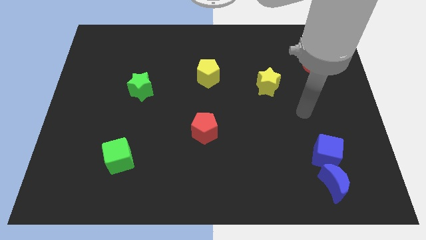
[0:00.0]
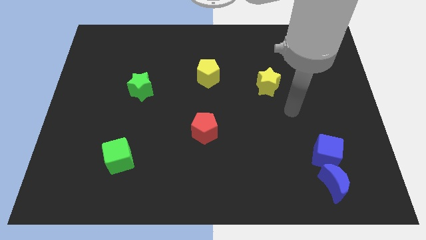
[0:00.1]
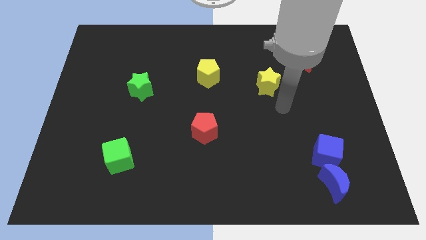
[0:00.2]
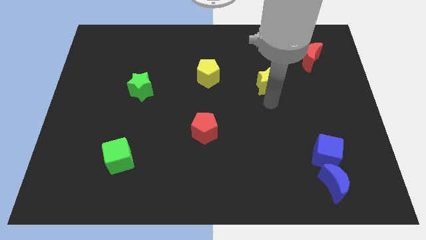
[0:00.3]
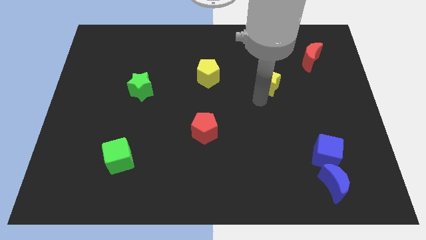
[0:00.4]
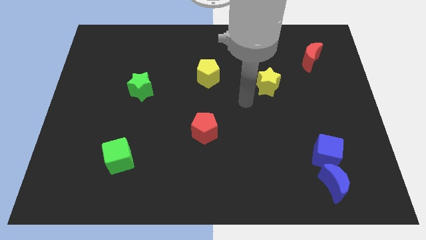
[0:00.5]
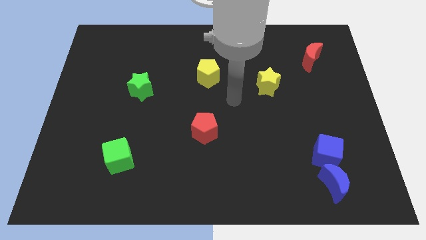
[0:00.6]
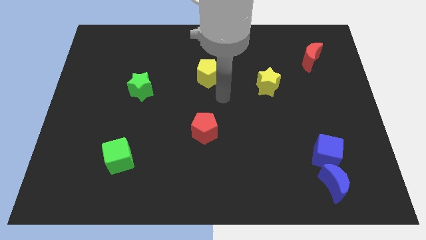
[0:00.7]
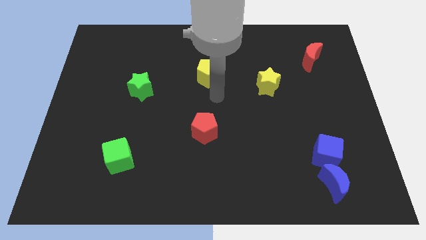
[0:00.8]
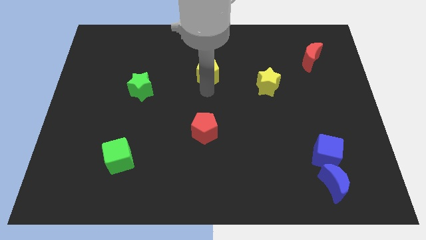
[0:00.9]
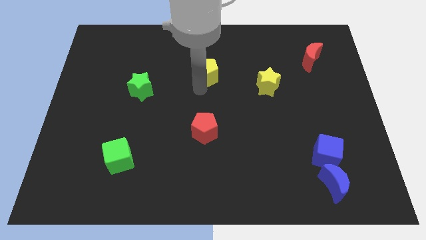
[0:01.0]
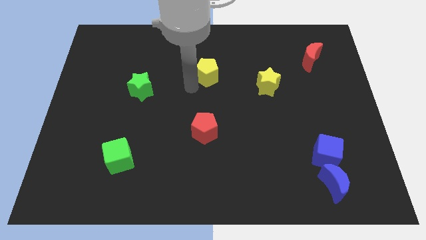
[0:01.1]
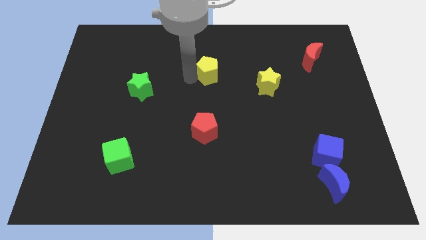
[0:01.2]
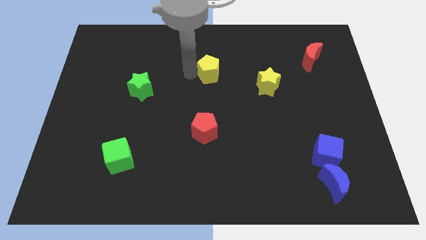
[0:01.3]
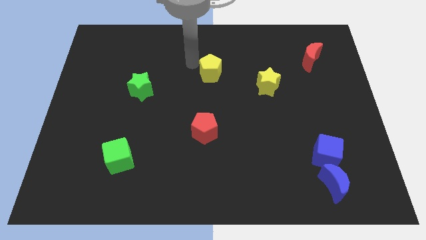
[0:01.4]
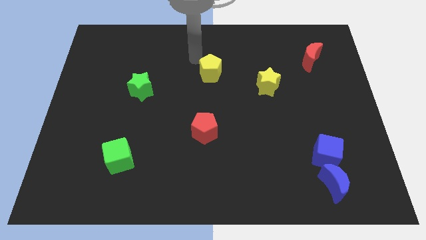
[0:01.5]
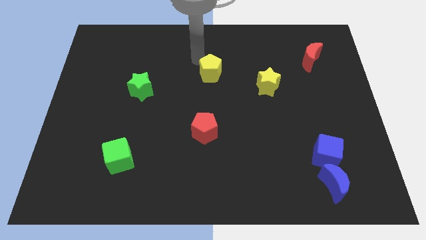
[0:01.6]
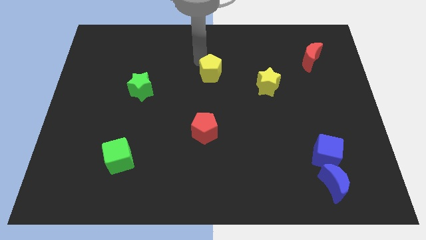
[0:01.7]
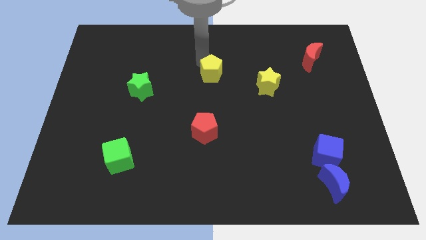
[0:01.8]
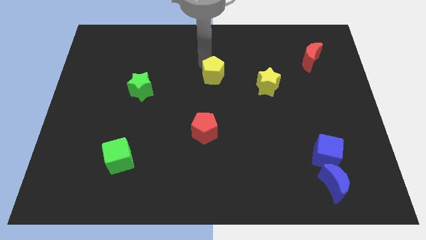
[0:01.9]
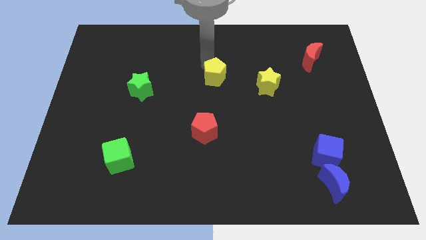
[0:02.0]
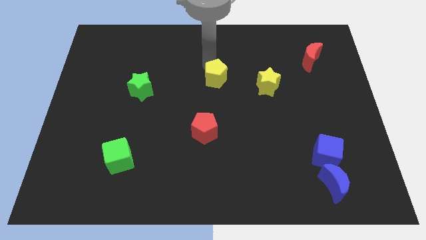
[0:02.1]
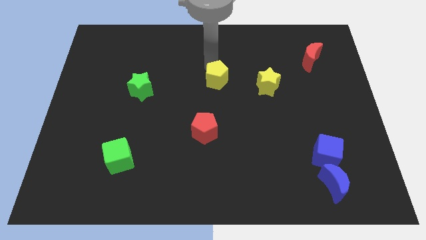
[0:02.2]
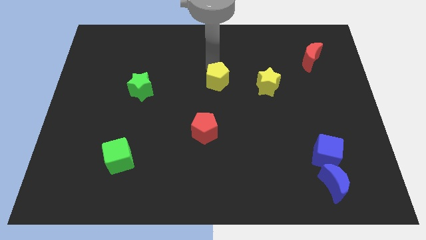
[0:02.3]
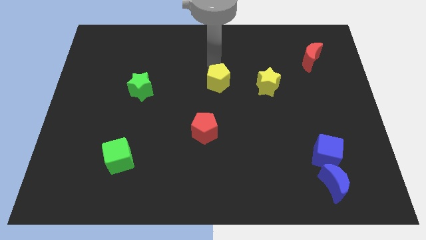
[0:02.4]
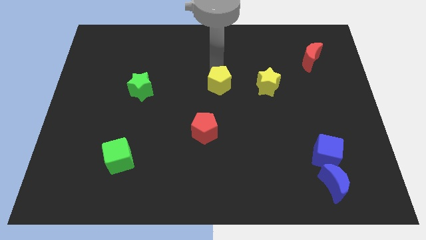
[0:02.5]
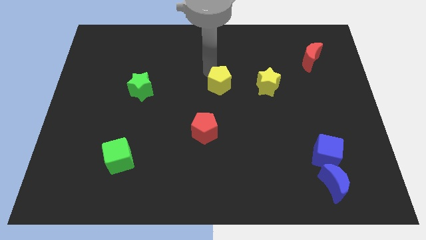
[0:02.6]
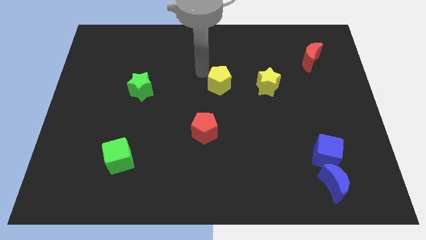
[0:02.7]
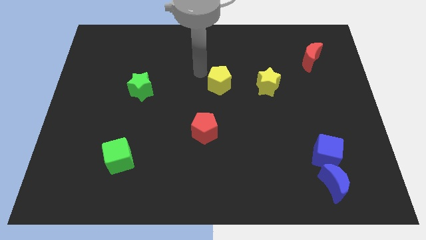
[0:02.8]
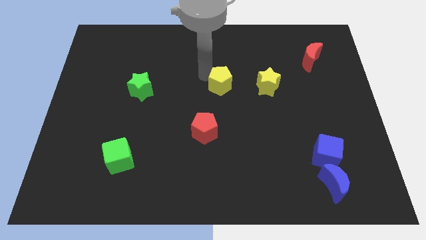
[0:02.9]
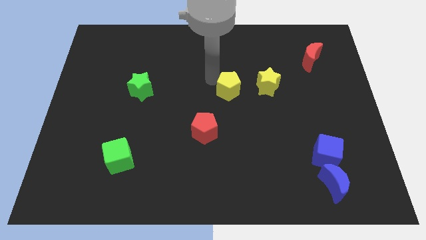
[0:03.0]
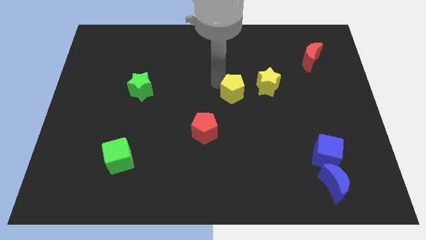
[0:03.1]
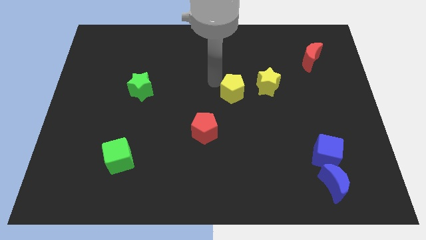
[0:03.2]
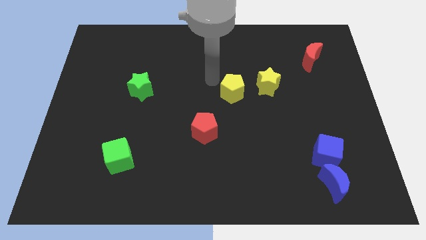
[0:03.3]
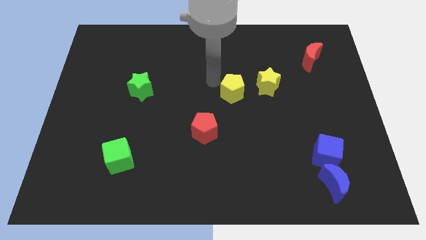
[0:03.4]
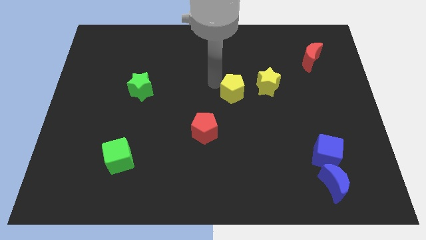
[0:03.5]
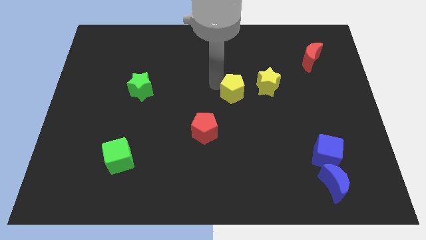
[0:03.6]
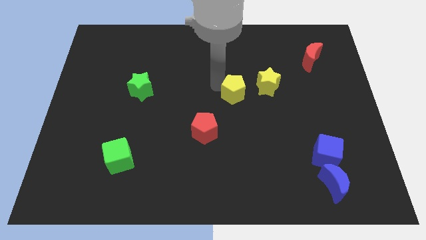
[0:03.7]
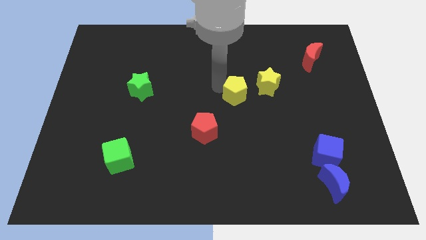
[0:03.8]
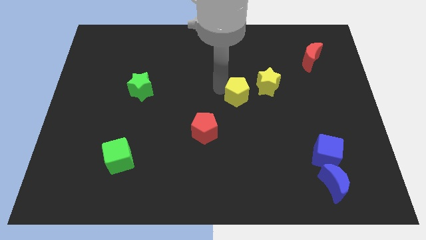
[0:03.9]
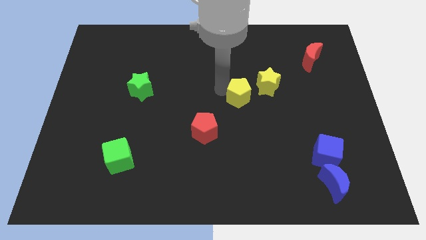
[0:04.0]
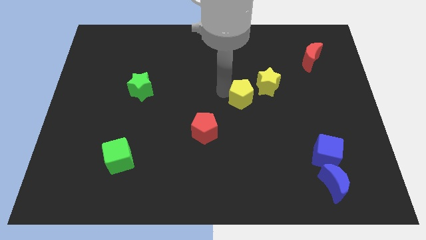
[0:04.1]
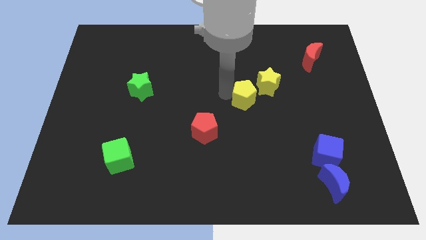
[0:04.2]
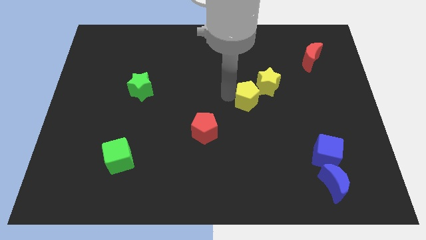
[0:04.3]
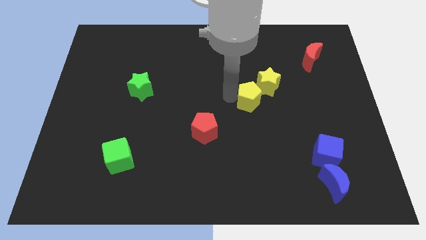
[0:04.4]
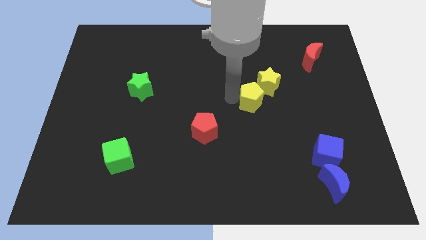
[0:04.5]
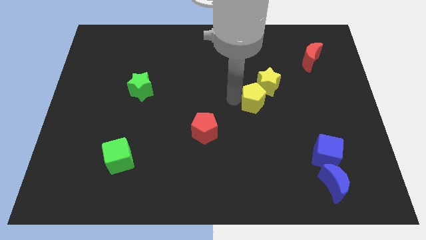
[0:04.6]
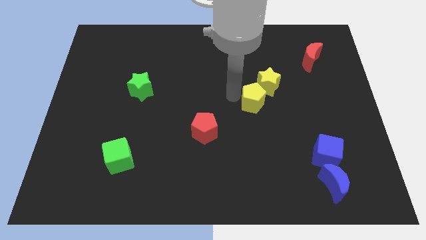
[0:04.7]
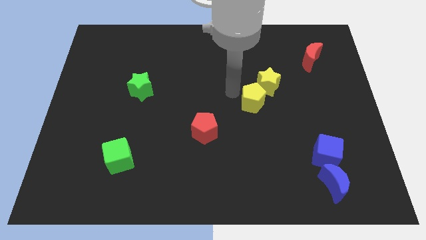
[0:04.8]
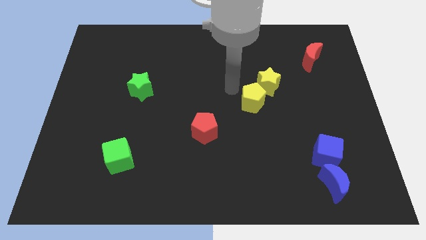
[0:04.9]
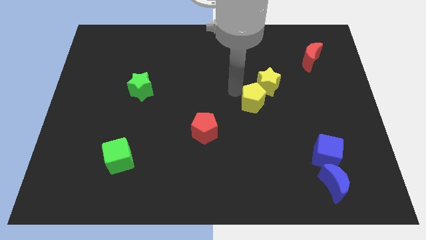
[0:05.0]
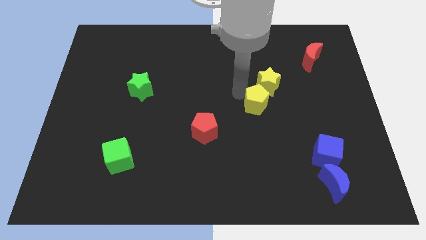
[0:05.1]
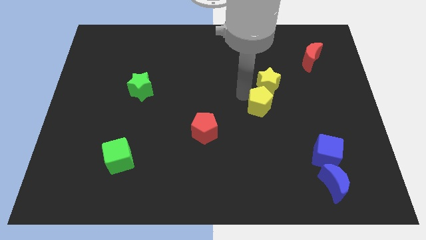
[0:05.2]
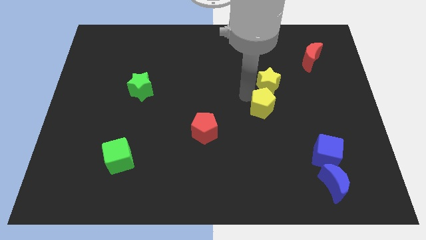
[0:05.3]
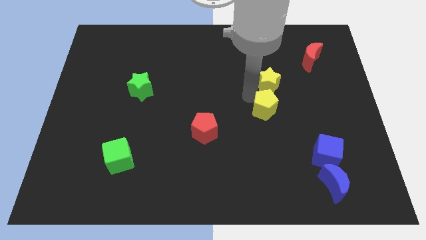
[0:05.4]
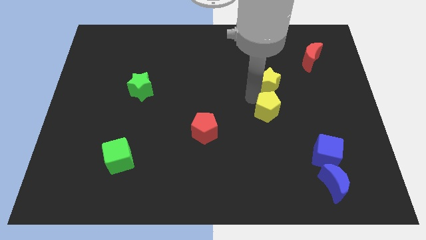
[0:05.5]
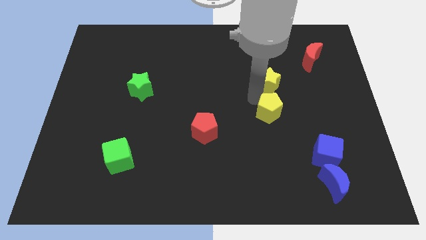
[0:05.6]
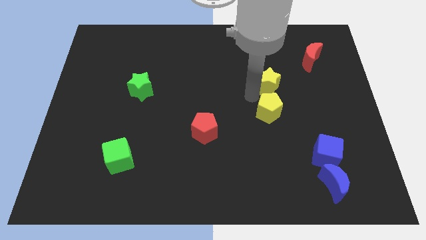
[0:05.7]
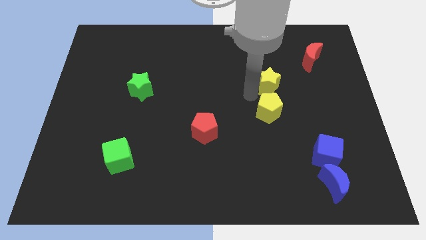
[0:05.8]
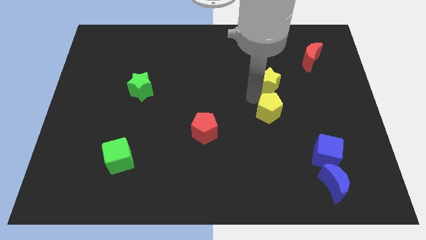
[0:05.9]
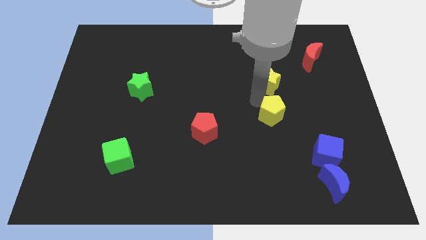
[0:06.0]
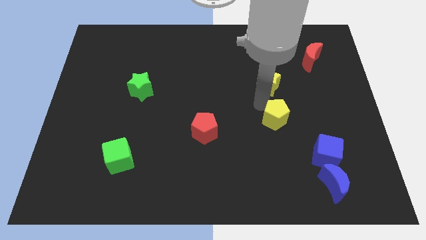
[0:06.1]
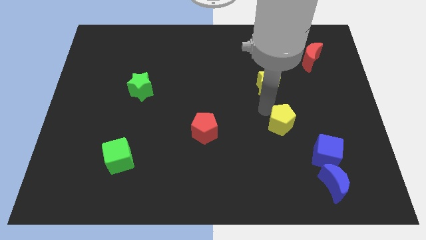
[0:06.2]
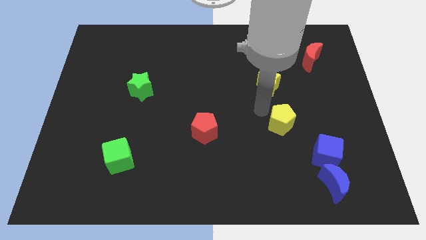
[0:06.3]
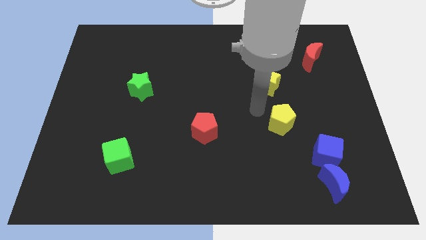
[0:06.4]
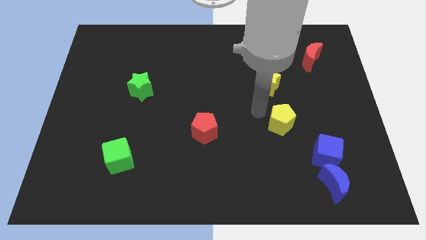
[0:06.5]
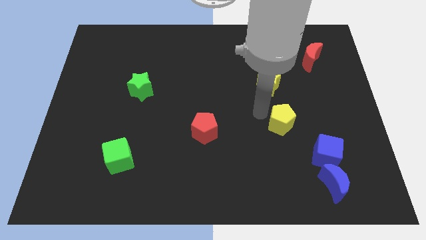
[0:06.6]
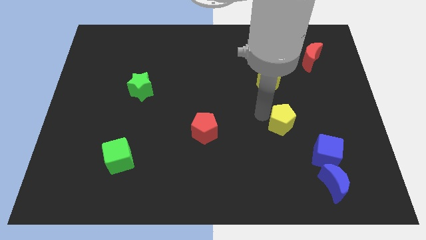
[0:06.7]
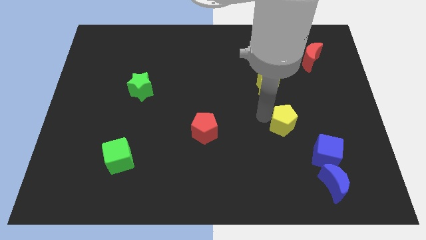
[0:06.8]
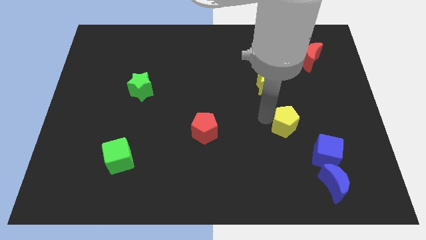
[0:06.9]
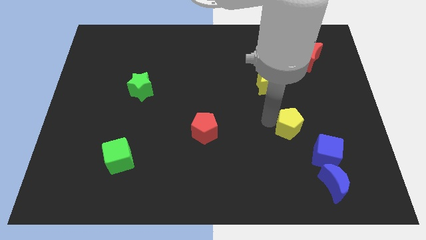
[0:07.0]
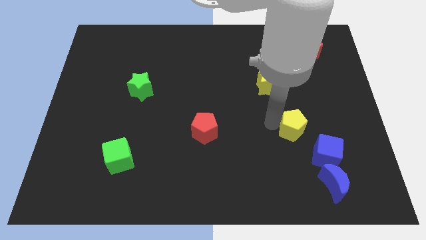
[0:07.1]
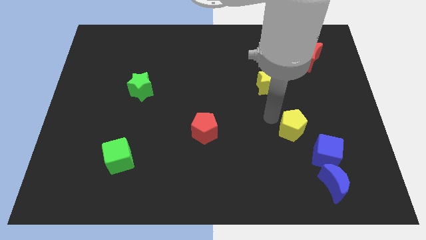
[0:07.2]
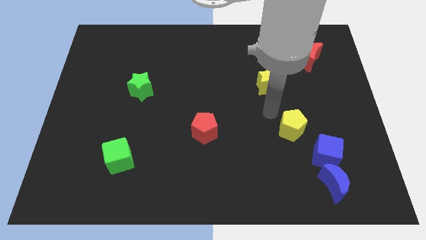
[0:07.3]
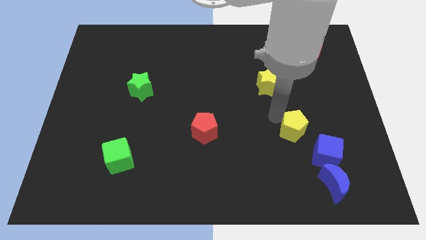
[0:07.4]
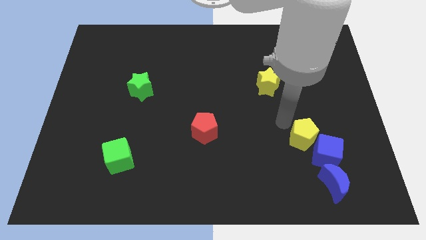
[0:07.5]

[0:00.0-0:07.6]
push the yellow pentagon next to the blue cube

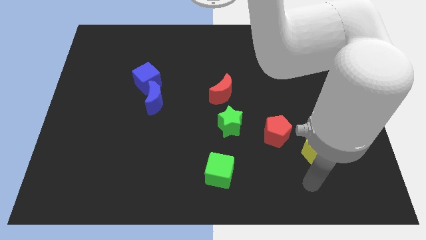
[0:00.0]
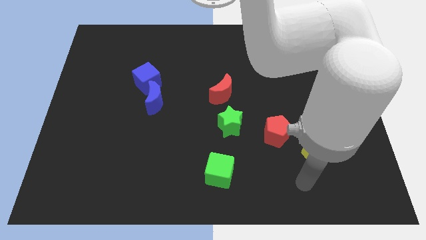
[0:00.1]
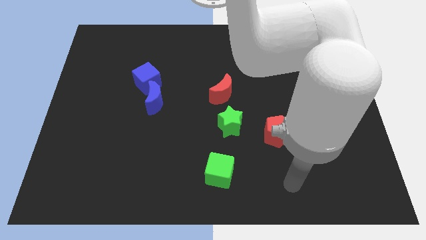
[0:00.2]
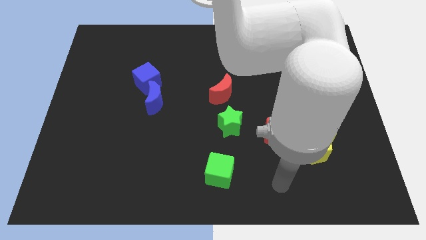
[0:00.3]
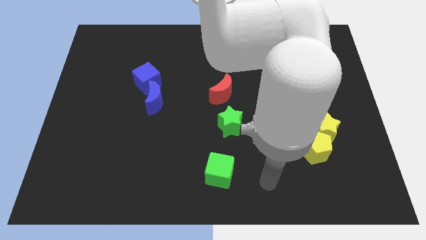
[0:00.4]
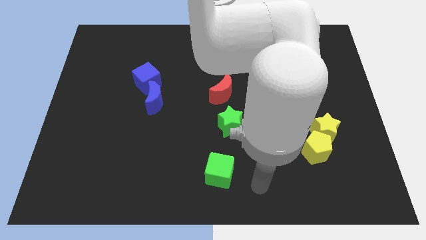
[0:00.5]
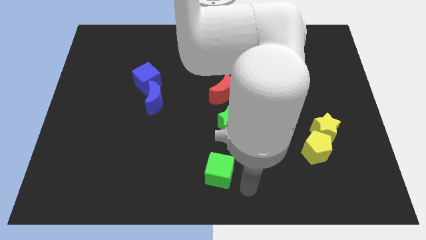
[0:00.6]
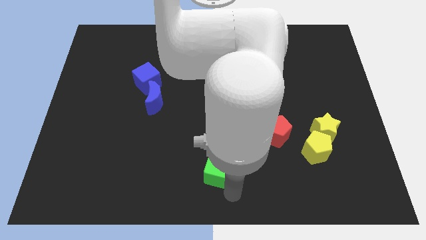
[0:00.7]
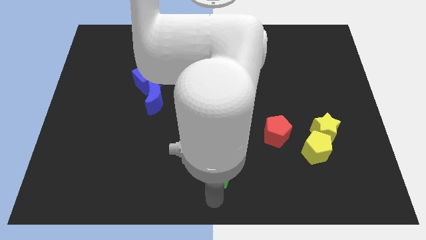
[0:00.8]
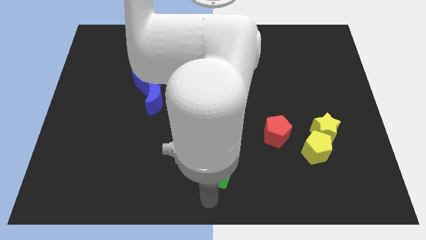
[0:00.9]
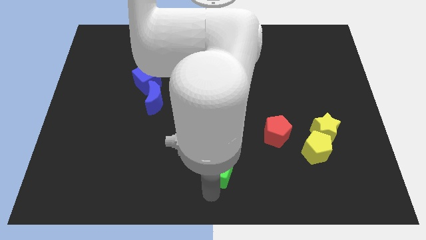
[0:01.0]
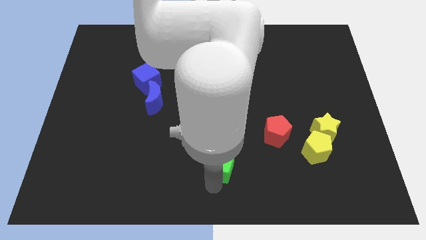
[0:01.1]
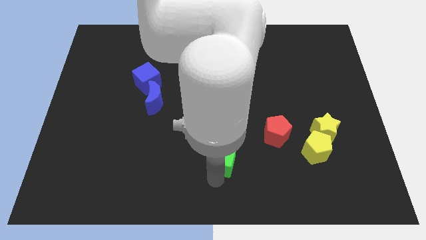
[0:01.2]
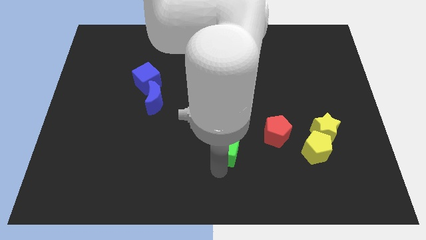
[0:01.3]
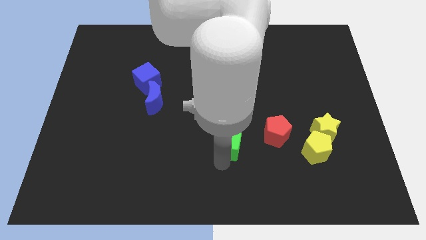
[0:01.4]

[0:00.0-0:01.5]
slide the green cube close to the green star
